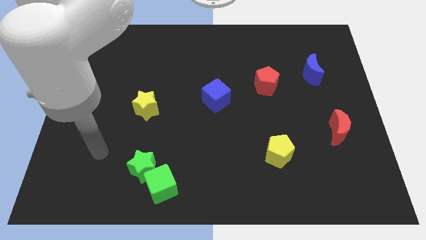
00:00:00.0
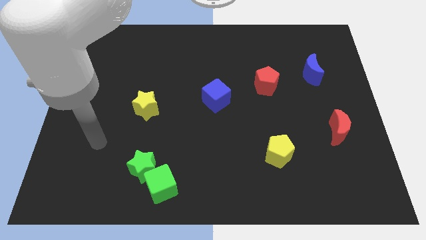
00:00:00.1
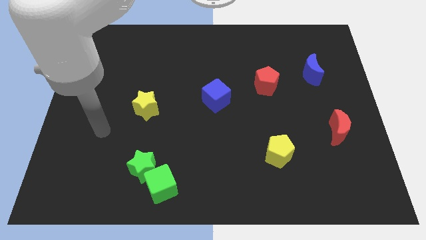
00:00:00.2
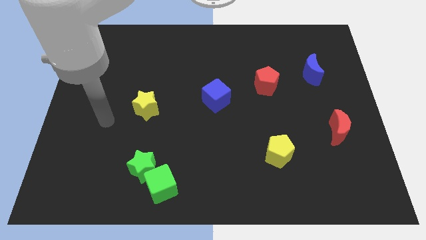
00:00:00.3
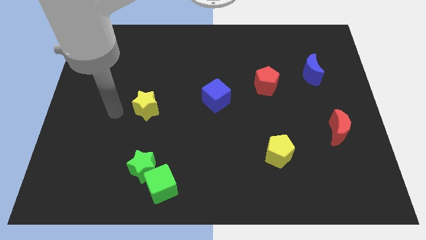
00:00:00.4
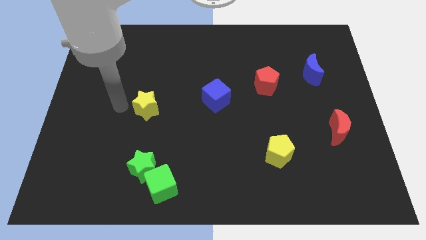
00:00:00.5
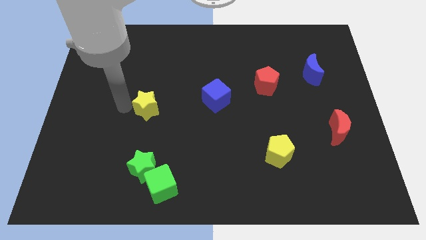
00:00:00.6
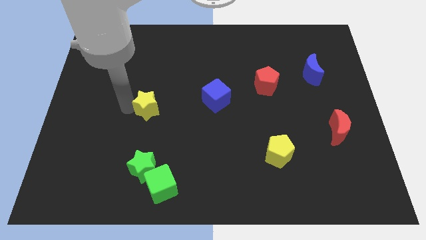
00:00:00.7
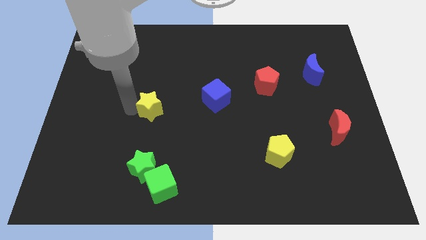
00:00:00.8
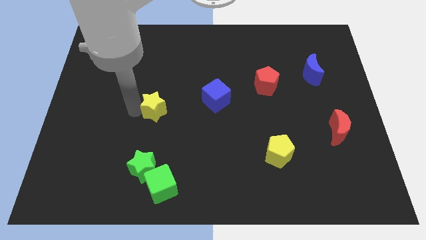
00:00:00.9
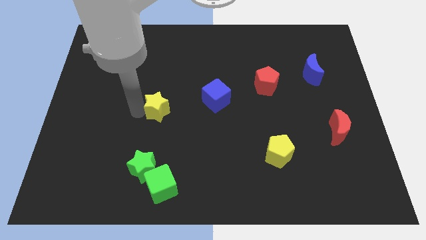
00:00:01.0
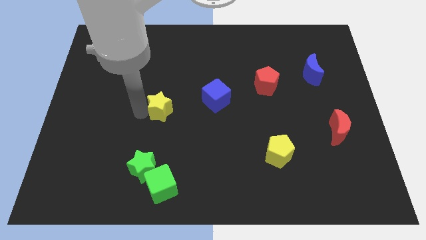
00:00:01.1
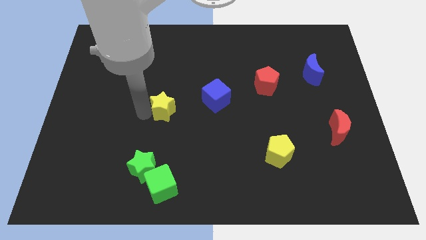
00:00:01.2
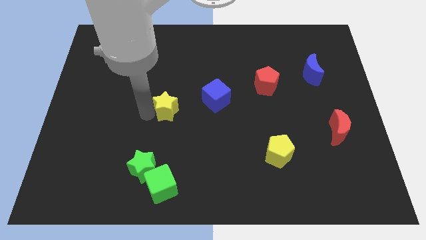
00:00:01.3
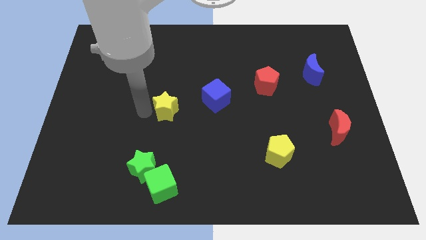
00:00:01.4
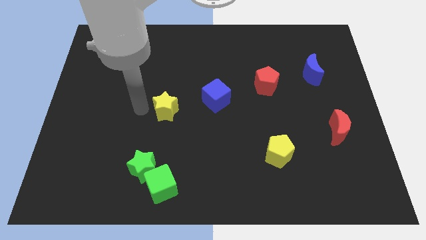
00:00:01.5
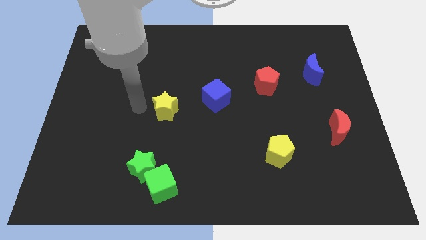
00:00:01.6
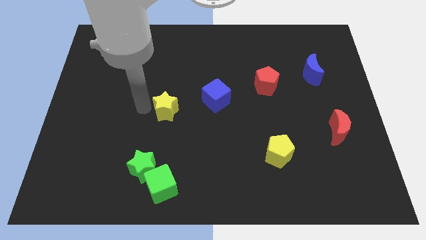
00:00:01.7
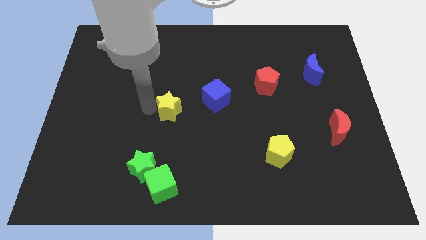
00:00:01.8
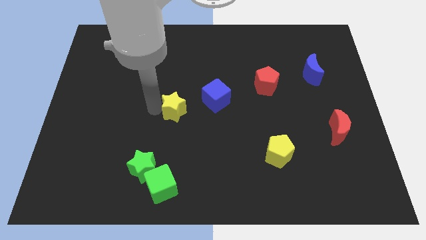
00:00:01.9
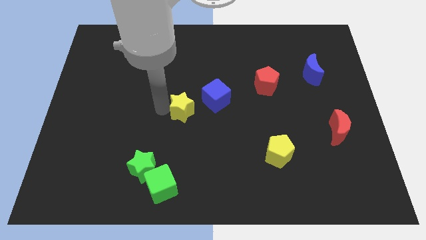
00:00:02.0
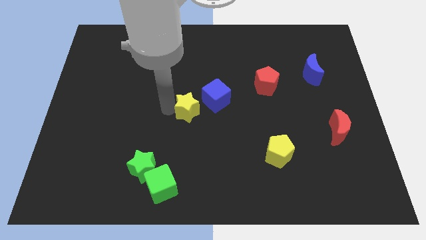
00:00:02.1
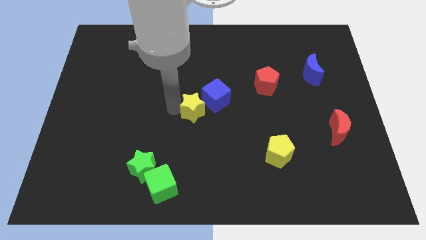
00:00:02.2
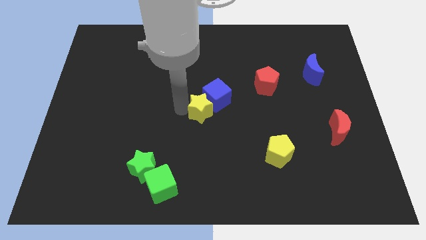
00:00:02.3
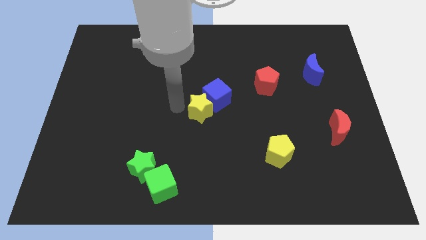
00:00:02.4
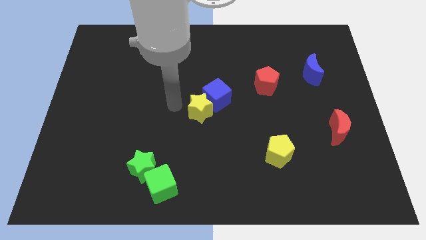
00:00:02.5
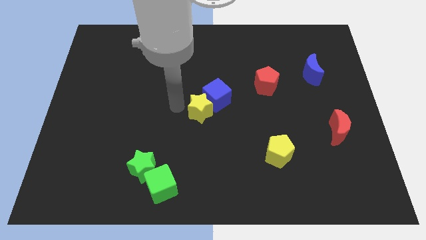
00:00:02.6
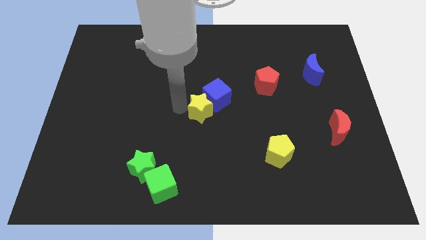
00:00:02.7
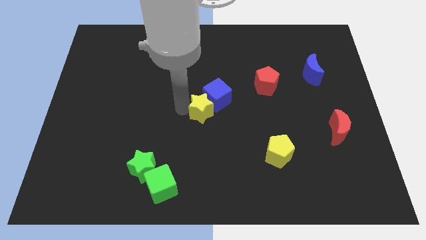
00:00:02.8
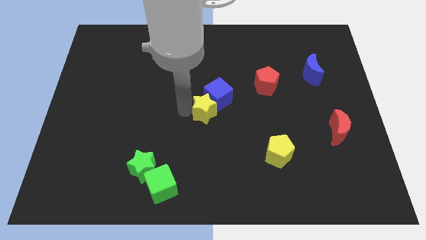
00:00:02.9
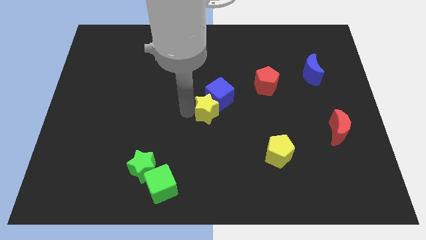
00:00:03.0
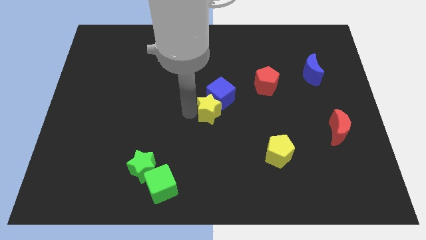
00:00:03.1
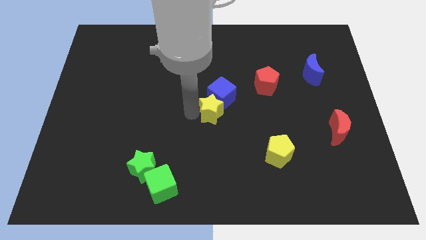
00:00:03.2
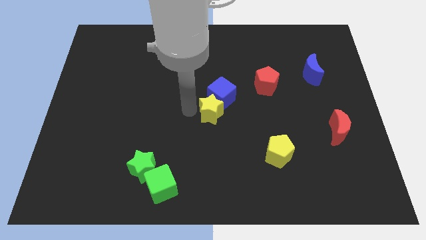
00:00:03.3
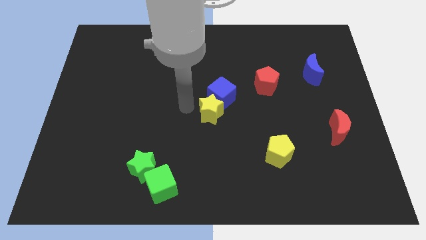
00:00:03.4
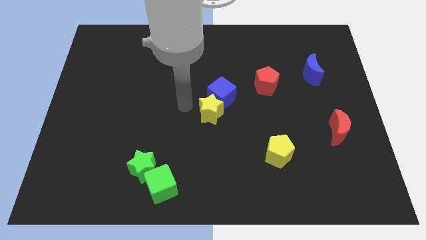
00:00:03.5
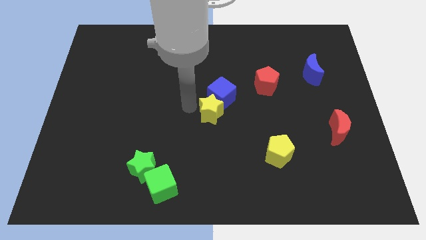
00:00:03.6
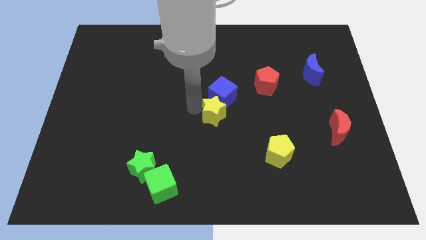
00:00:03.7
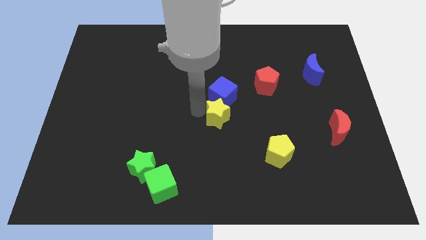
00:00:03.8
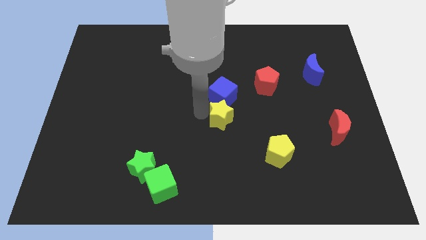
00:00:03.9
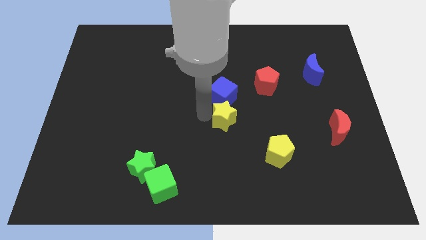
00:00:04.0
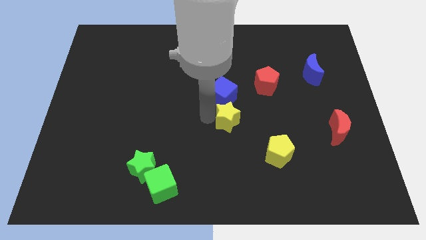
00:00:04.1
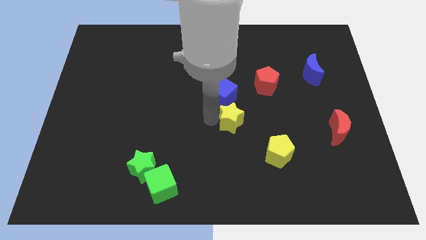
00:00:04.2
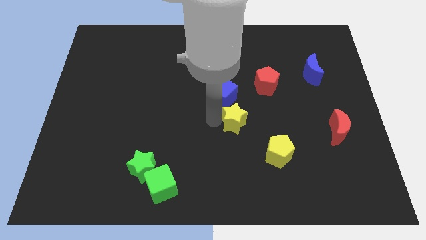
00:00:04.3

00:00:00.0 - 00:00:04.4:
push the yellow star to the right

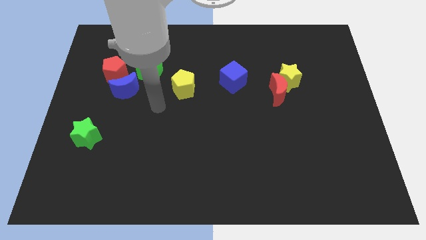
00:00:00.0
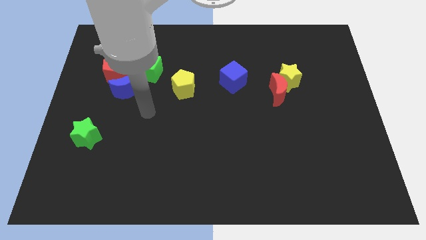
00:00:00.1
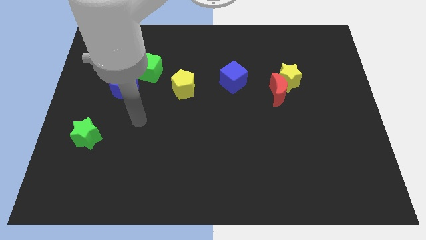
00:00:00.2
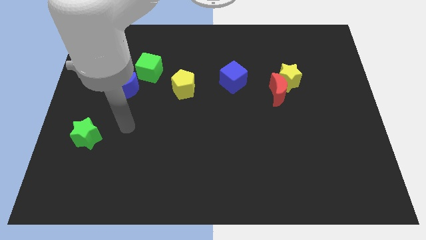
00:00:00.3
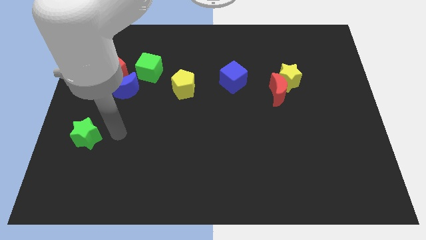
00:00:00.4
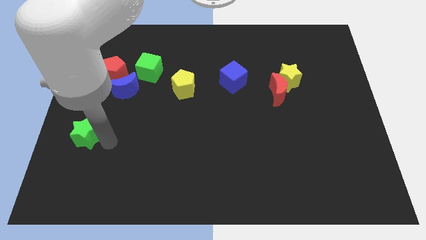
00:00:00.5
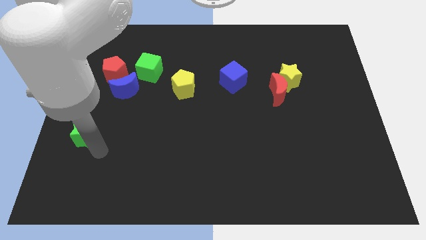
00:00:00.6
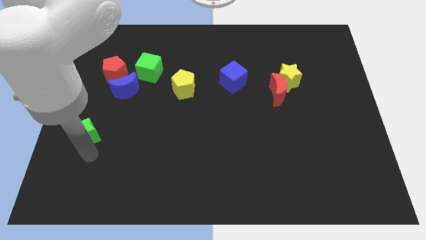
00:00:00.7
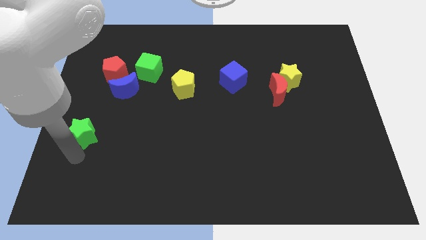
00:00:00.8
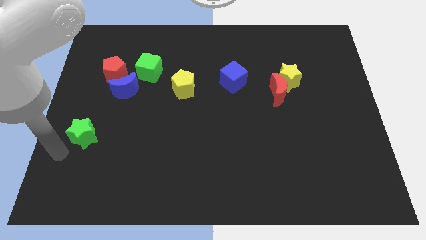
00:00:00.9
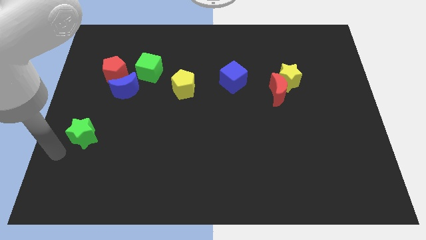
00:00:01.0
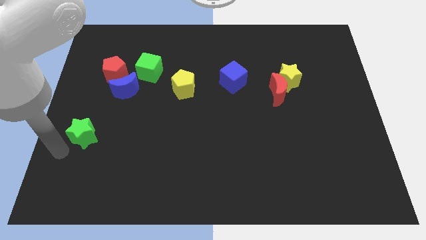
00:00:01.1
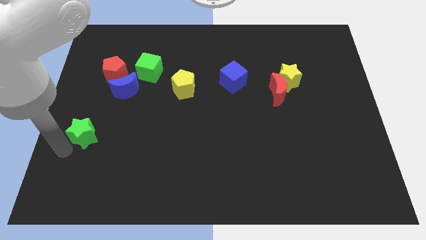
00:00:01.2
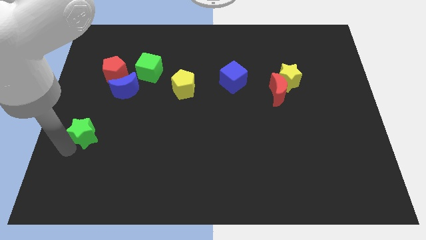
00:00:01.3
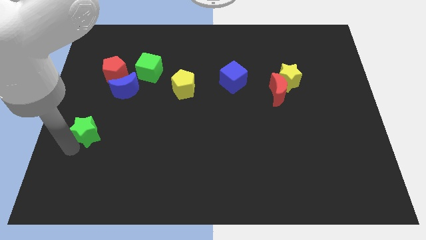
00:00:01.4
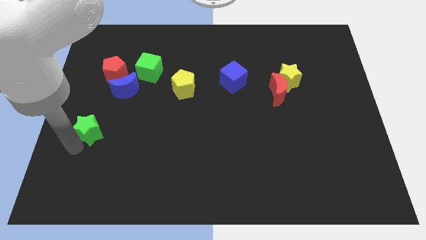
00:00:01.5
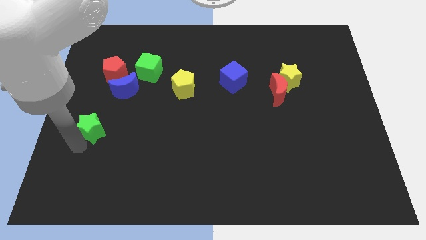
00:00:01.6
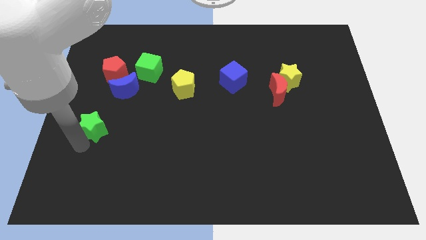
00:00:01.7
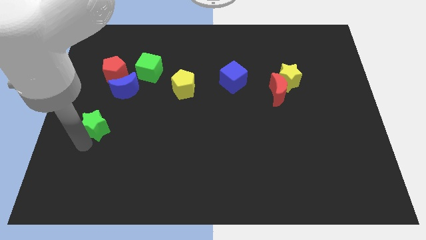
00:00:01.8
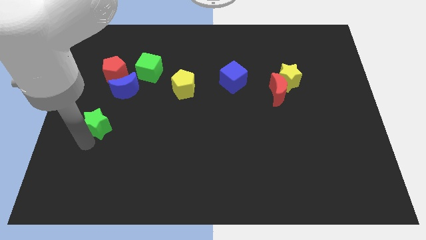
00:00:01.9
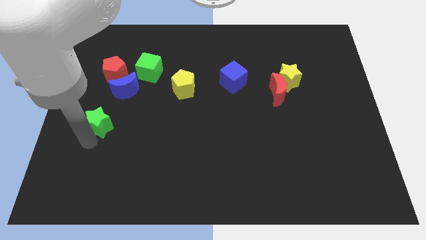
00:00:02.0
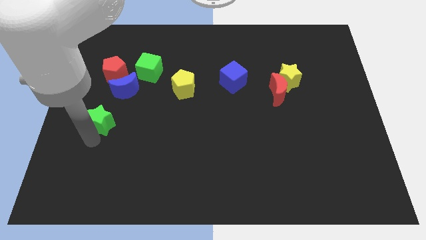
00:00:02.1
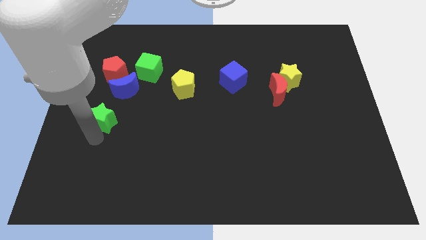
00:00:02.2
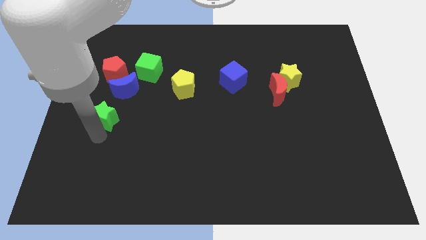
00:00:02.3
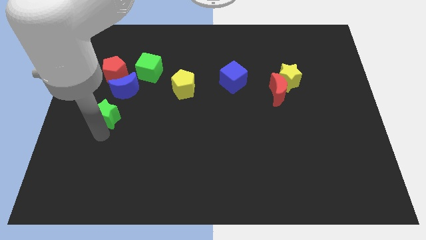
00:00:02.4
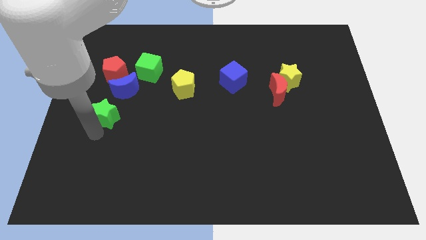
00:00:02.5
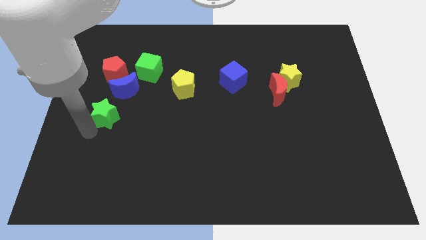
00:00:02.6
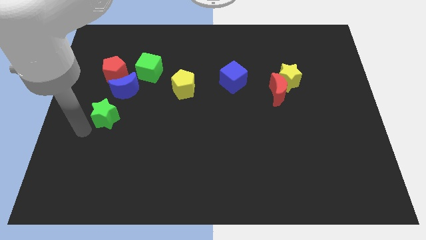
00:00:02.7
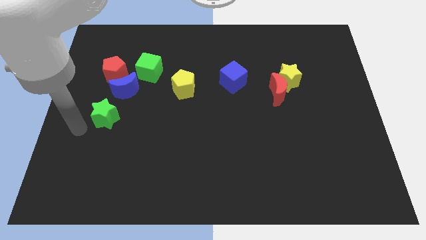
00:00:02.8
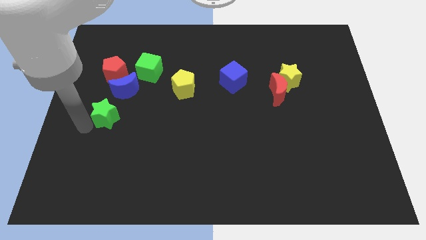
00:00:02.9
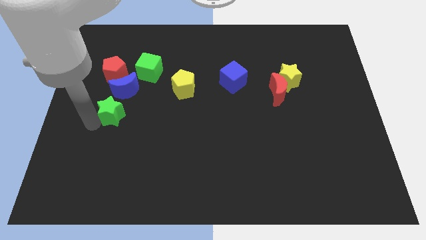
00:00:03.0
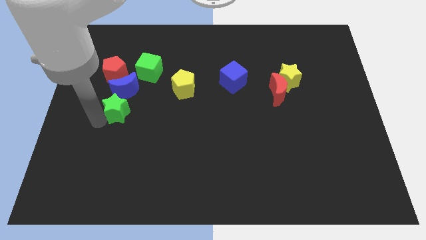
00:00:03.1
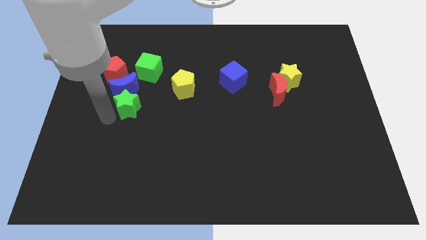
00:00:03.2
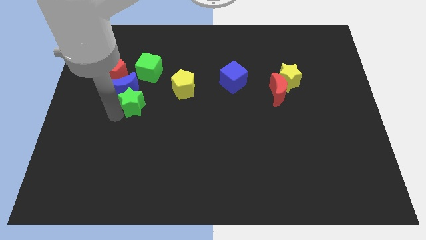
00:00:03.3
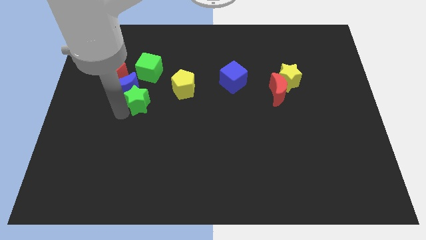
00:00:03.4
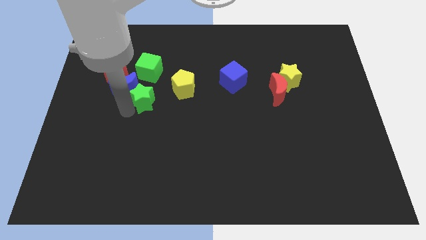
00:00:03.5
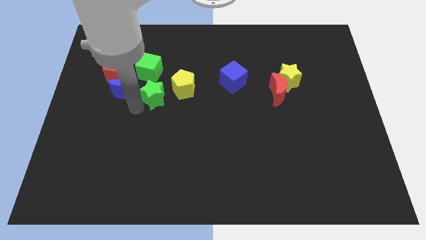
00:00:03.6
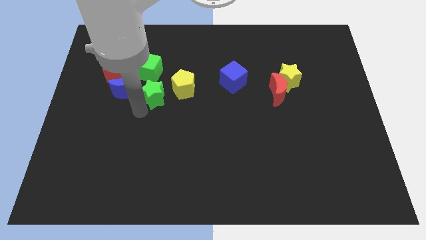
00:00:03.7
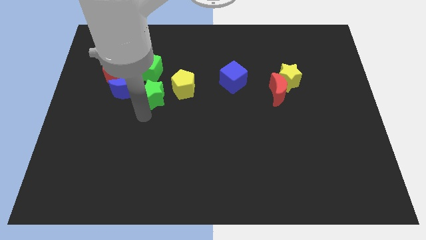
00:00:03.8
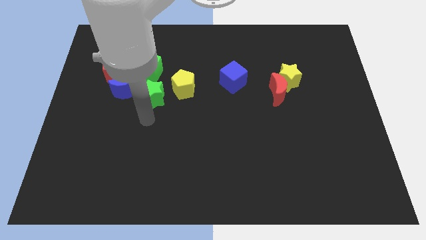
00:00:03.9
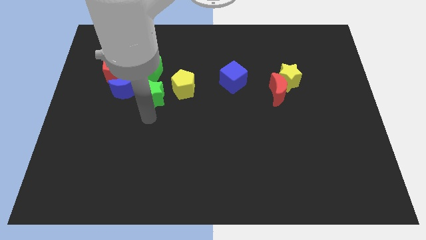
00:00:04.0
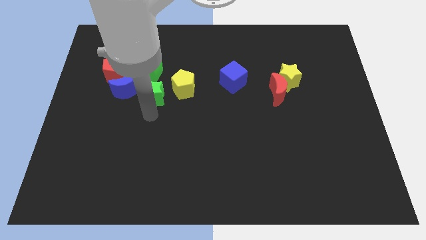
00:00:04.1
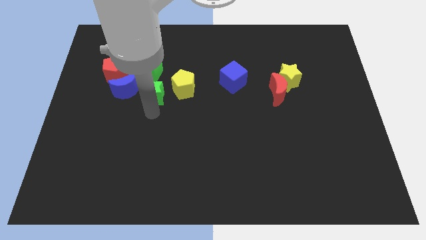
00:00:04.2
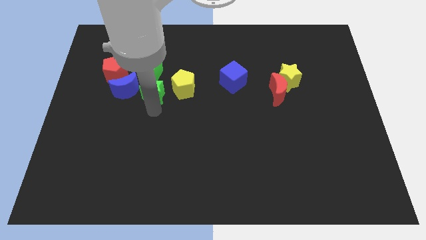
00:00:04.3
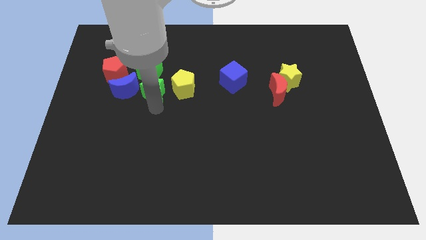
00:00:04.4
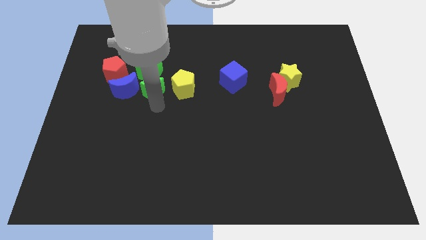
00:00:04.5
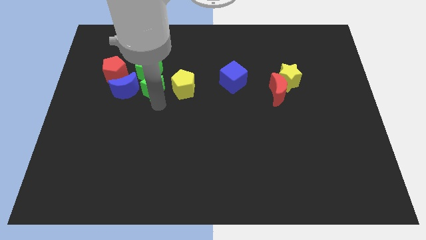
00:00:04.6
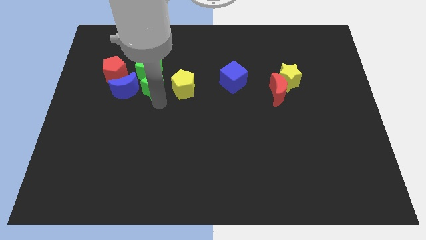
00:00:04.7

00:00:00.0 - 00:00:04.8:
slide the green star diagonally upwards and right
